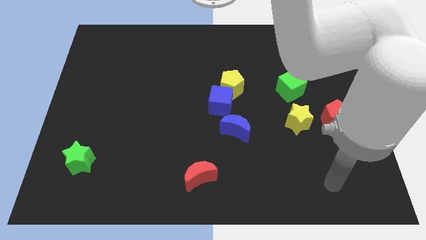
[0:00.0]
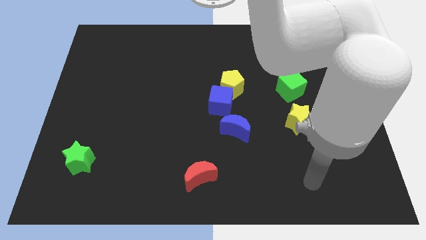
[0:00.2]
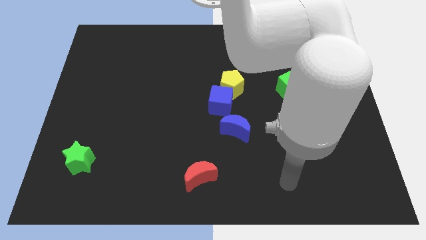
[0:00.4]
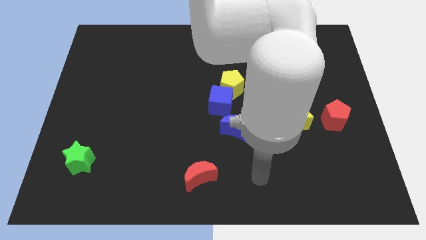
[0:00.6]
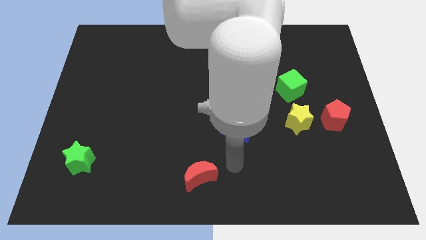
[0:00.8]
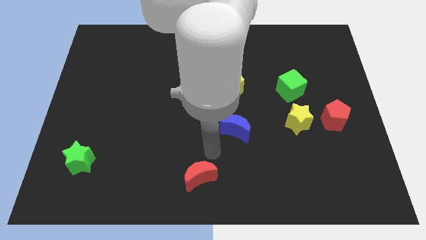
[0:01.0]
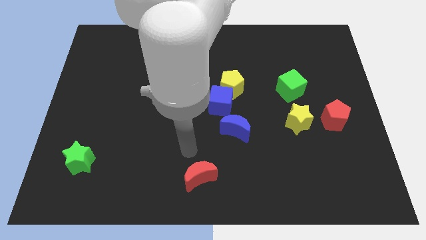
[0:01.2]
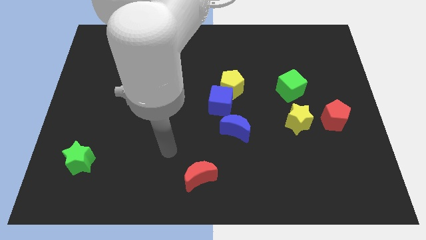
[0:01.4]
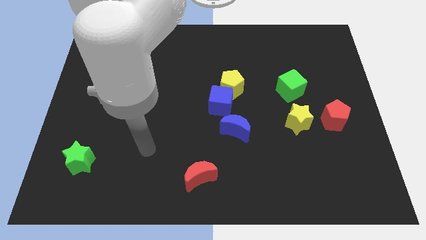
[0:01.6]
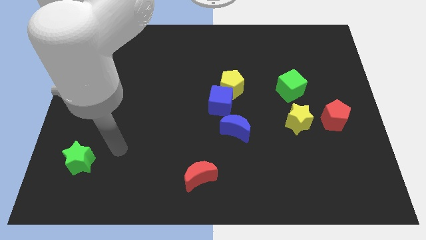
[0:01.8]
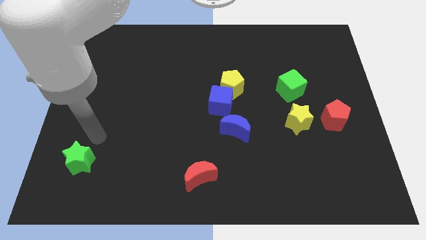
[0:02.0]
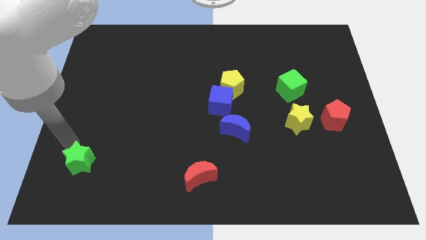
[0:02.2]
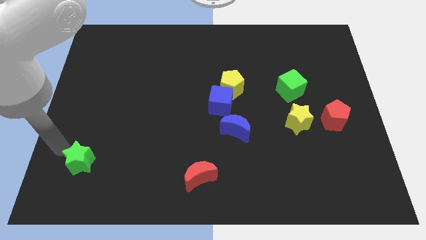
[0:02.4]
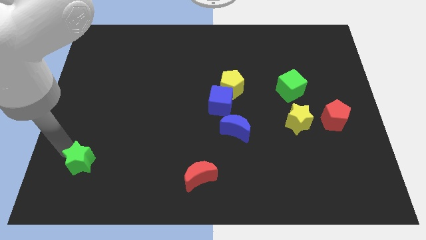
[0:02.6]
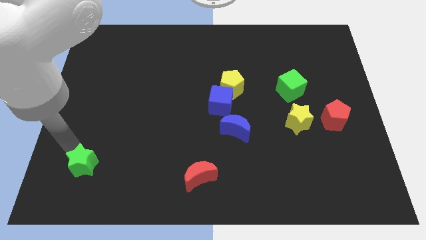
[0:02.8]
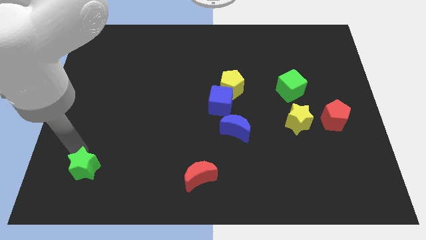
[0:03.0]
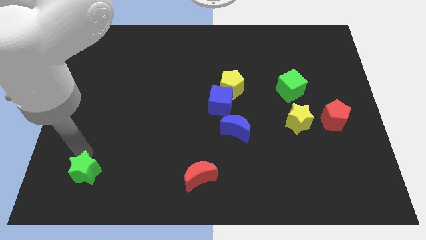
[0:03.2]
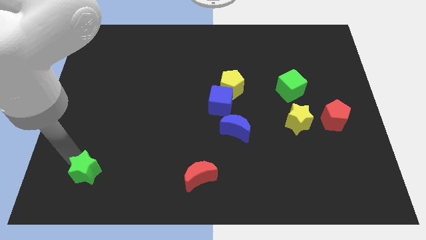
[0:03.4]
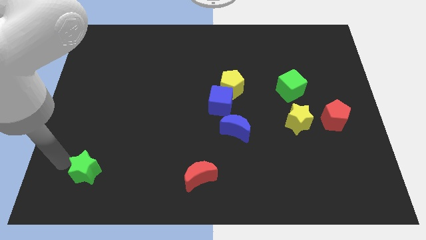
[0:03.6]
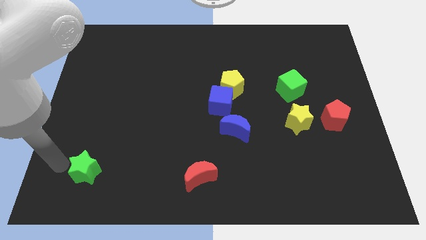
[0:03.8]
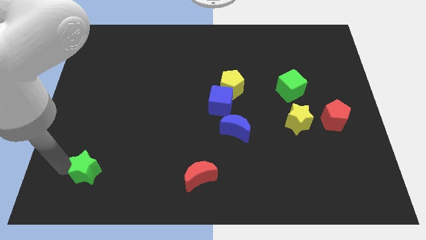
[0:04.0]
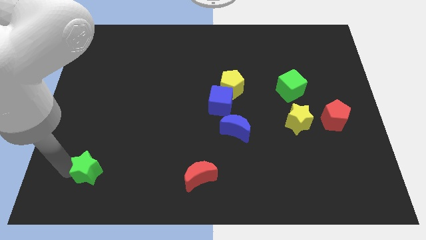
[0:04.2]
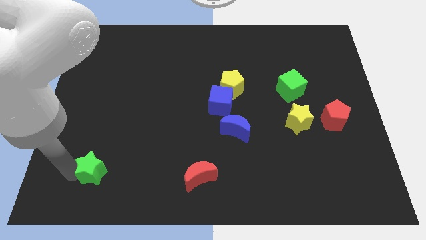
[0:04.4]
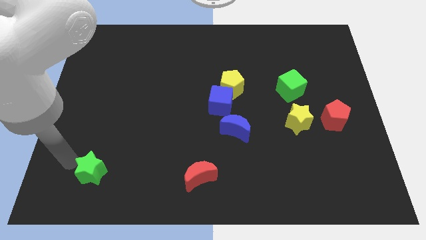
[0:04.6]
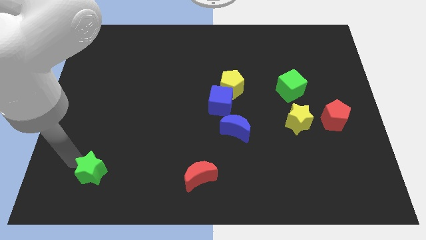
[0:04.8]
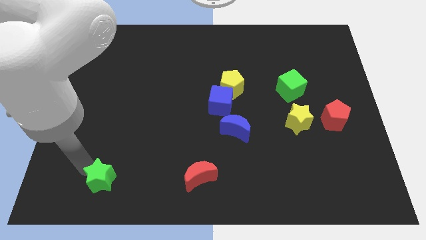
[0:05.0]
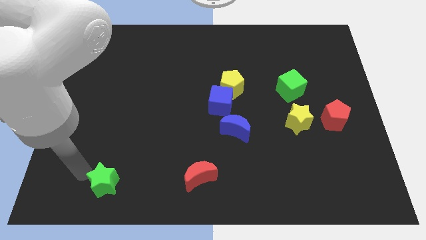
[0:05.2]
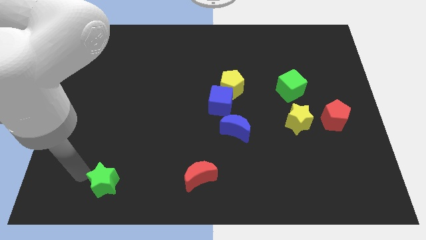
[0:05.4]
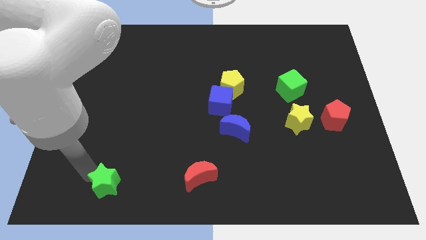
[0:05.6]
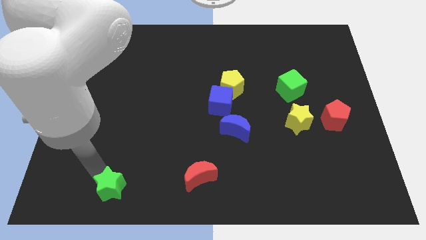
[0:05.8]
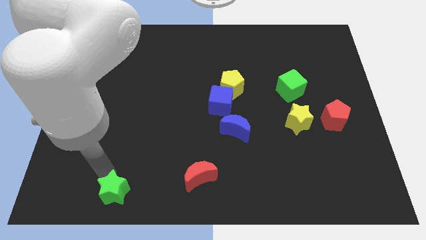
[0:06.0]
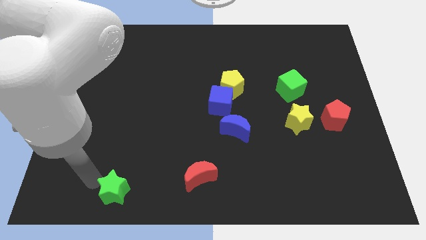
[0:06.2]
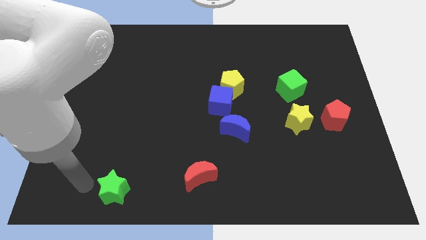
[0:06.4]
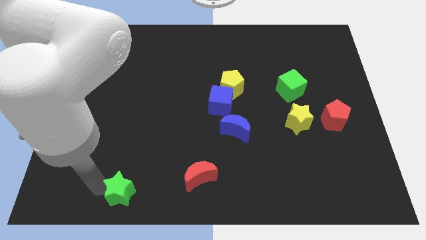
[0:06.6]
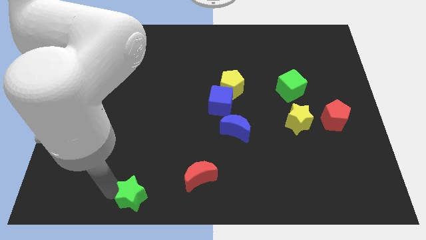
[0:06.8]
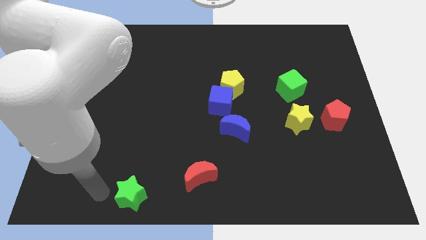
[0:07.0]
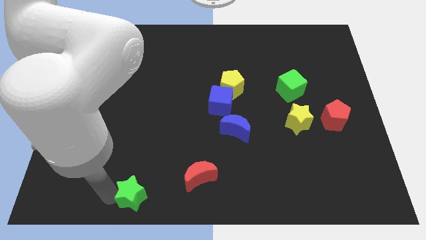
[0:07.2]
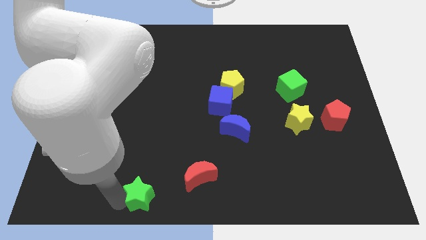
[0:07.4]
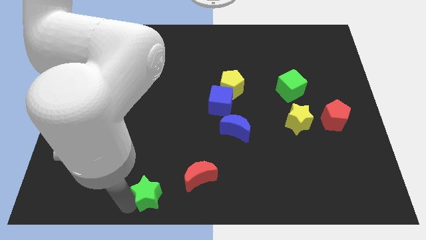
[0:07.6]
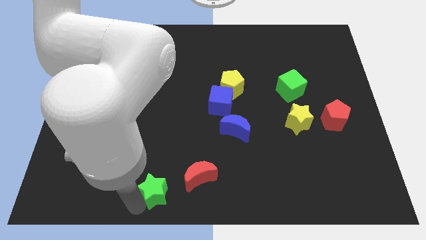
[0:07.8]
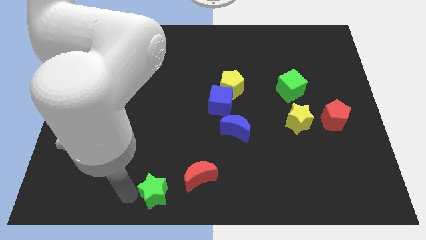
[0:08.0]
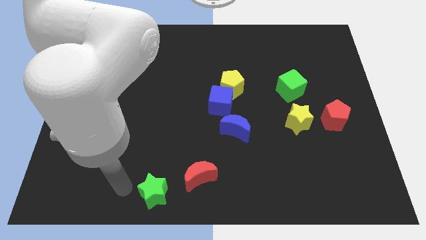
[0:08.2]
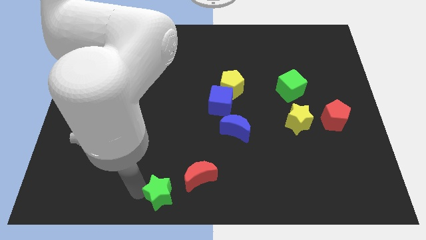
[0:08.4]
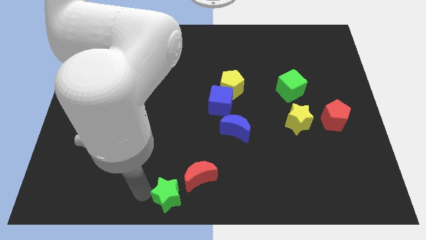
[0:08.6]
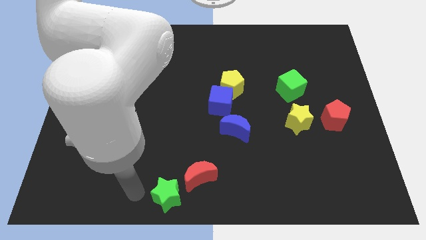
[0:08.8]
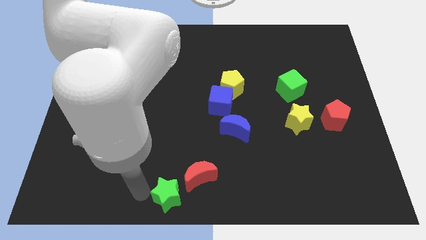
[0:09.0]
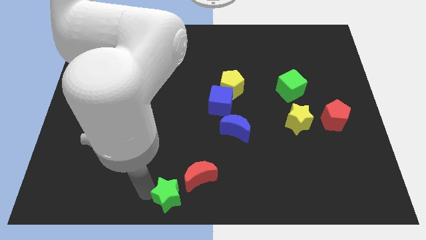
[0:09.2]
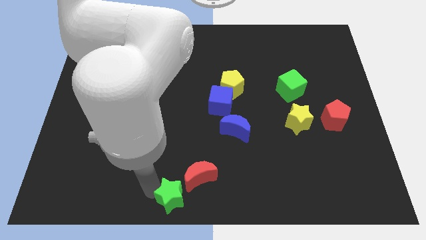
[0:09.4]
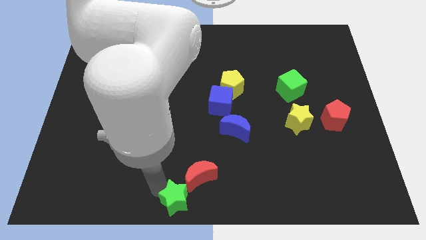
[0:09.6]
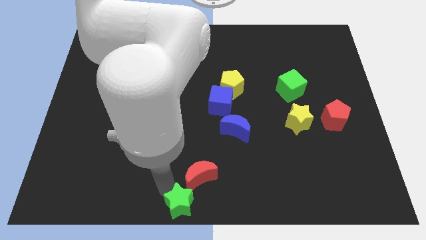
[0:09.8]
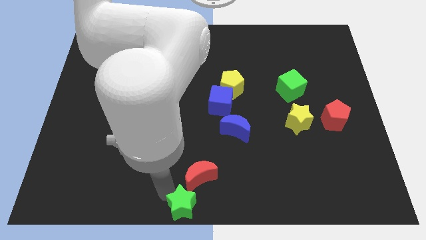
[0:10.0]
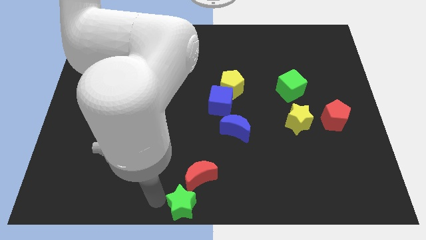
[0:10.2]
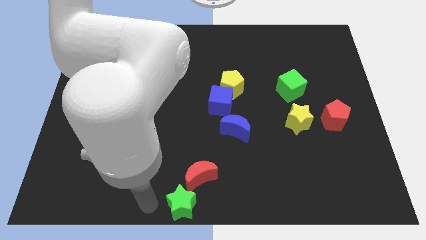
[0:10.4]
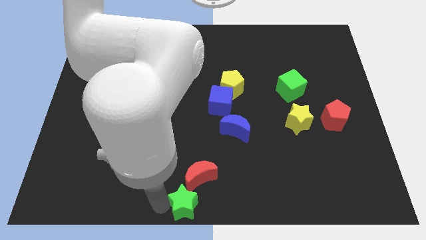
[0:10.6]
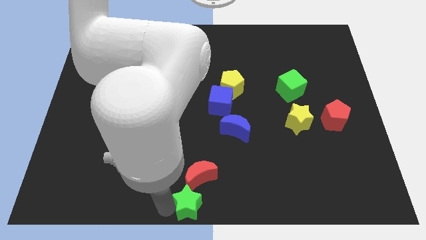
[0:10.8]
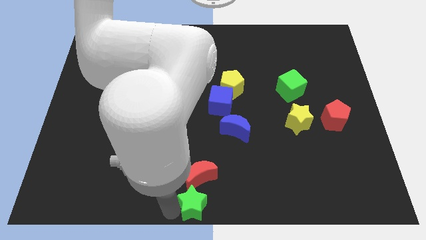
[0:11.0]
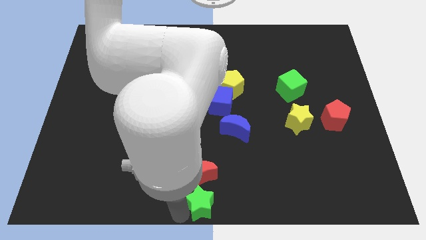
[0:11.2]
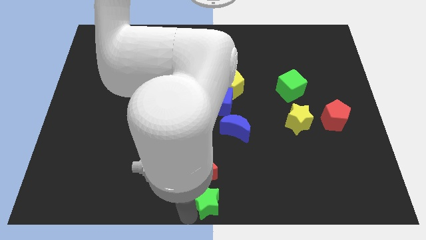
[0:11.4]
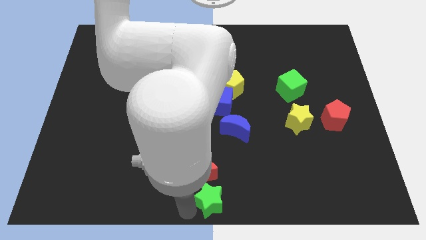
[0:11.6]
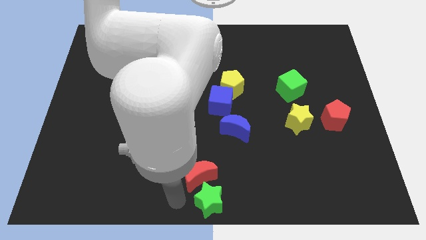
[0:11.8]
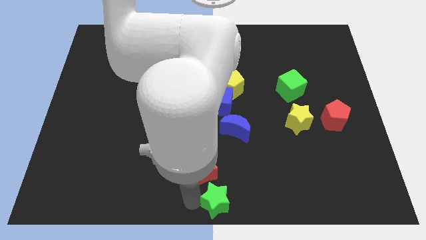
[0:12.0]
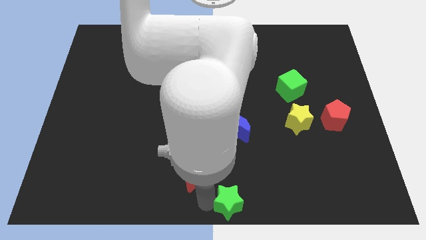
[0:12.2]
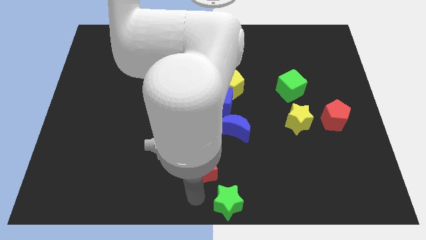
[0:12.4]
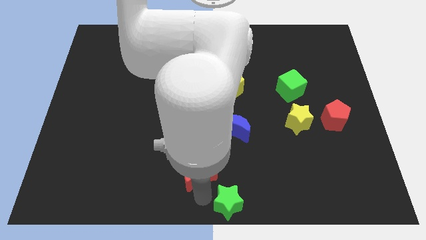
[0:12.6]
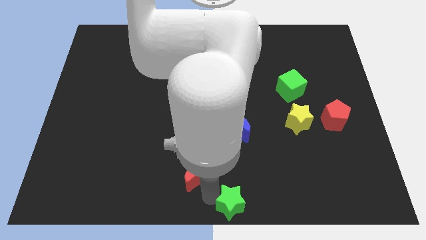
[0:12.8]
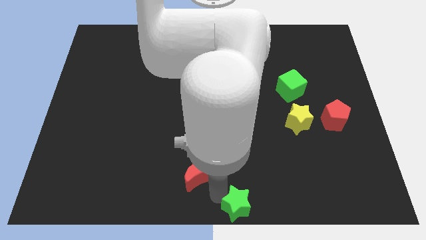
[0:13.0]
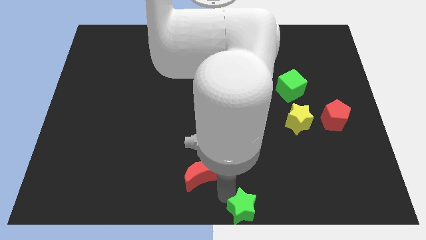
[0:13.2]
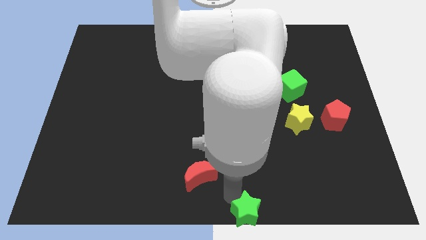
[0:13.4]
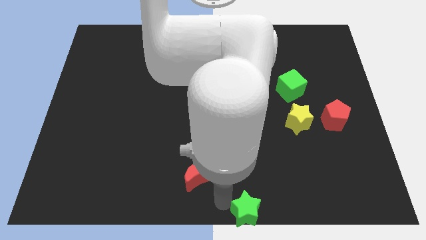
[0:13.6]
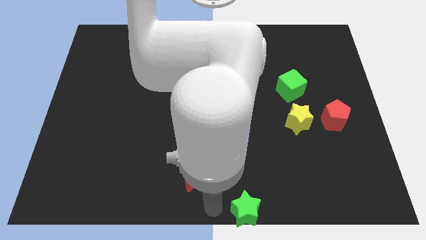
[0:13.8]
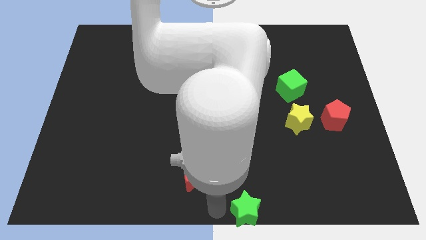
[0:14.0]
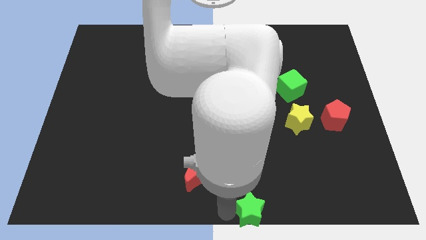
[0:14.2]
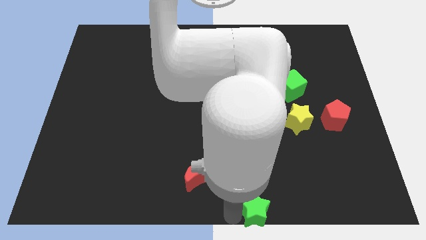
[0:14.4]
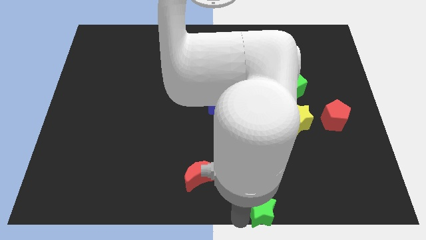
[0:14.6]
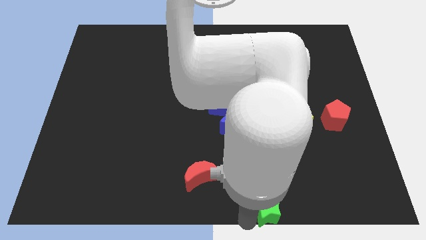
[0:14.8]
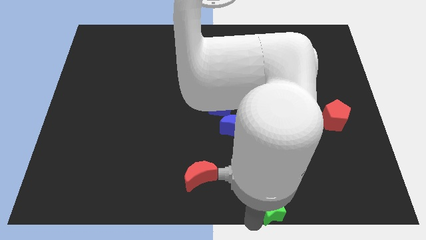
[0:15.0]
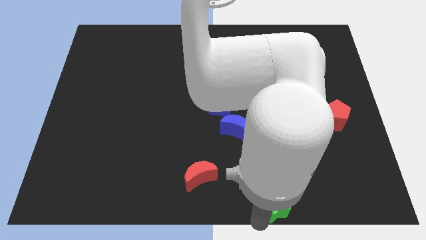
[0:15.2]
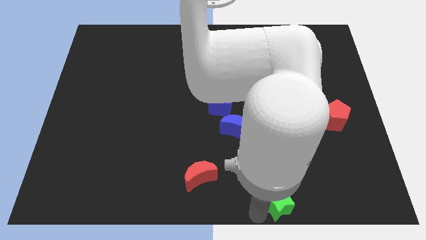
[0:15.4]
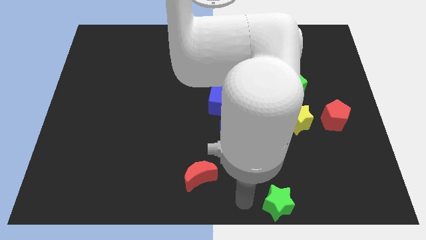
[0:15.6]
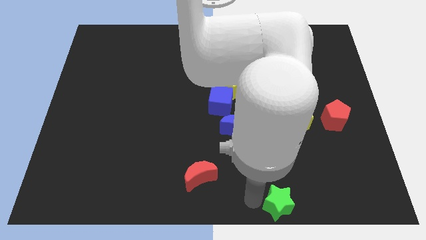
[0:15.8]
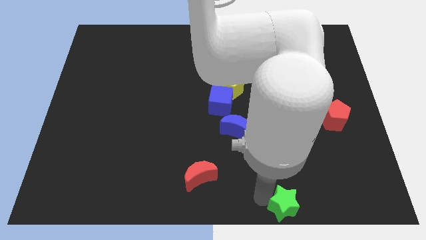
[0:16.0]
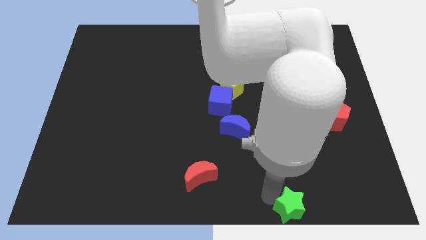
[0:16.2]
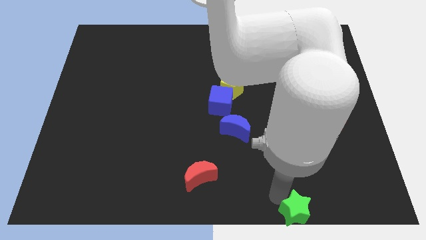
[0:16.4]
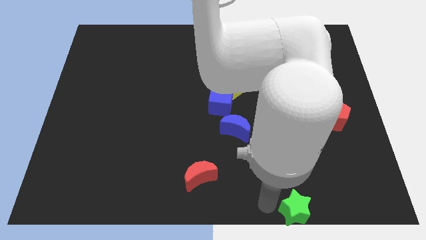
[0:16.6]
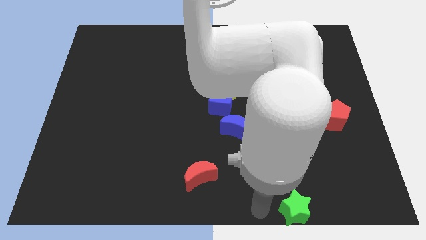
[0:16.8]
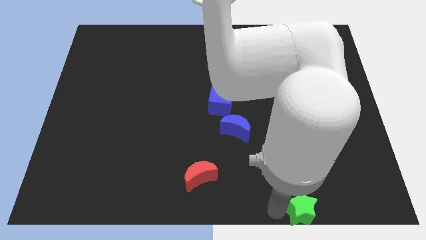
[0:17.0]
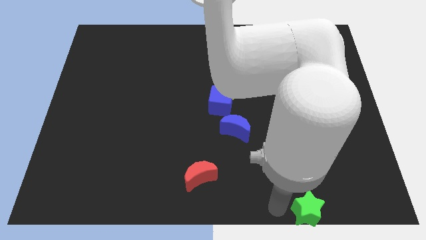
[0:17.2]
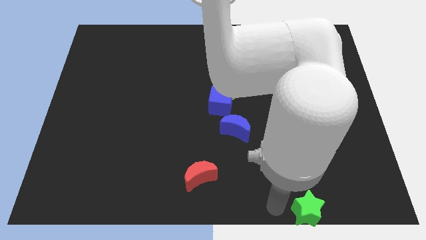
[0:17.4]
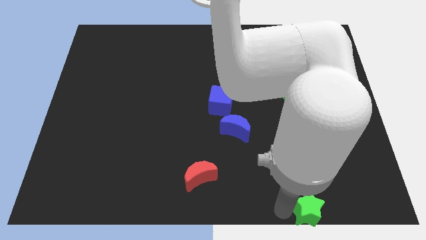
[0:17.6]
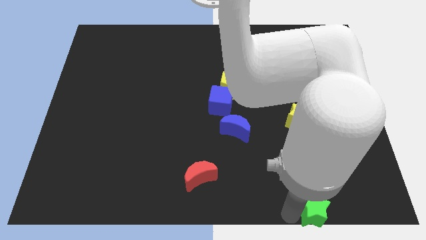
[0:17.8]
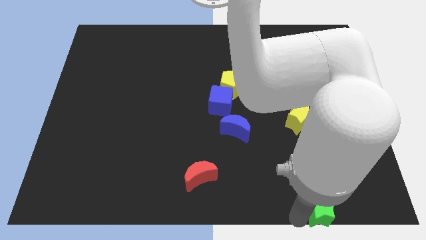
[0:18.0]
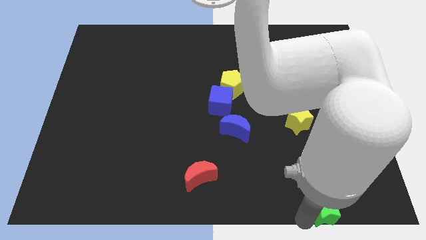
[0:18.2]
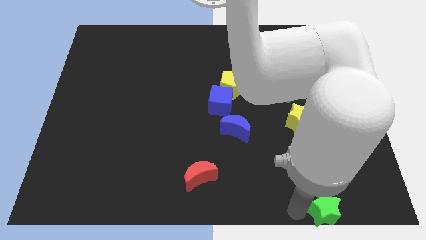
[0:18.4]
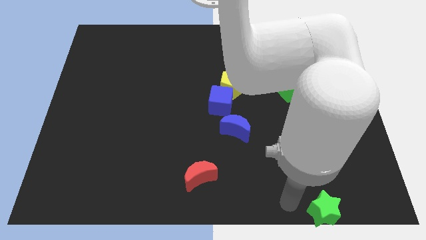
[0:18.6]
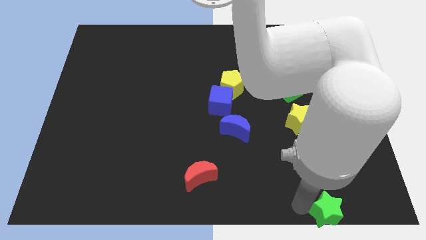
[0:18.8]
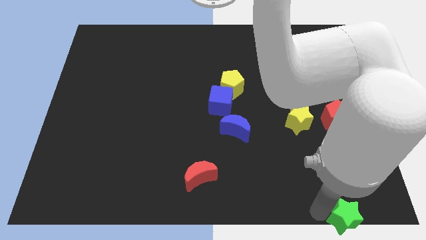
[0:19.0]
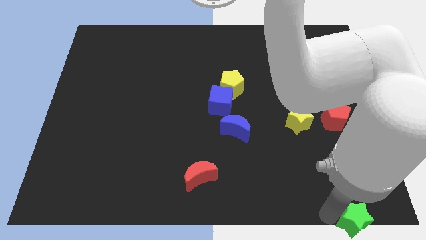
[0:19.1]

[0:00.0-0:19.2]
move the green star to the bottom right of the board
